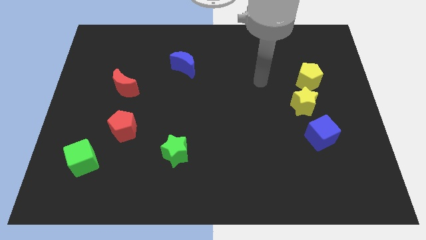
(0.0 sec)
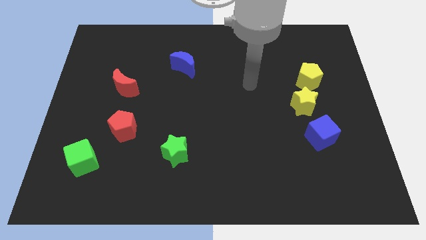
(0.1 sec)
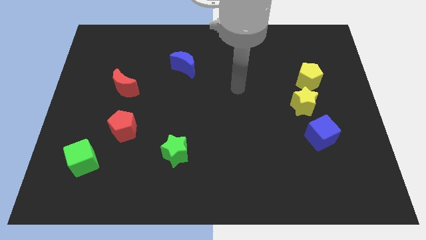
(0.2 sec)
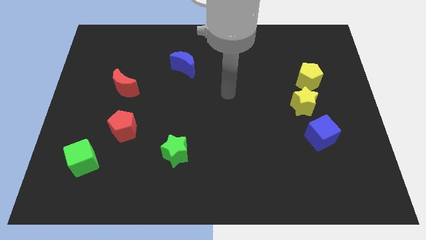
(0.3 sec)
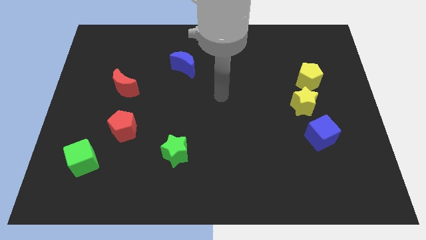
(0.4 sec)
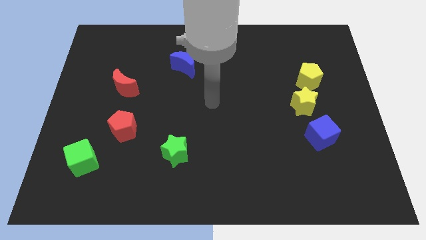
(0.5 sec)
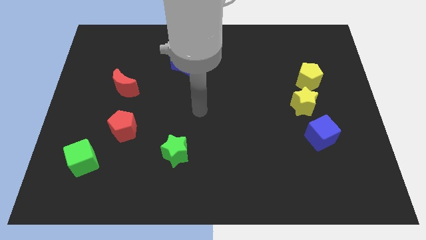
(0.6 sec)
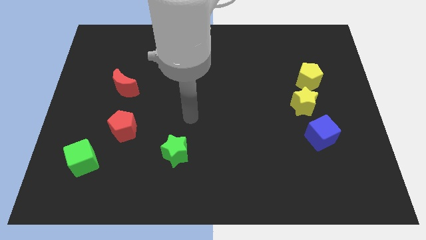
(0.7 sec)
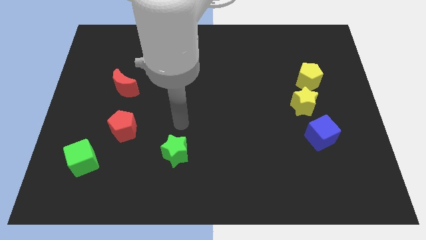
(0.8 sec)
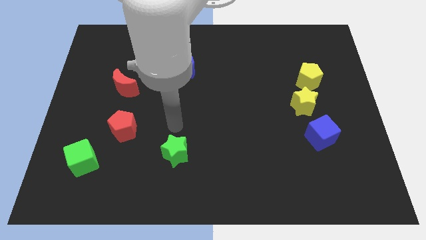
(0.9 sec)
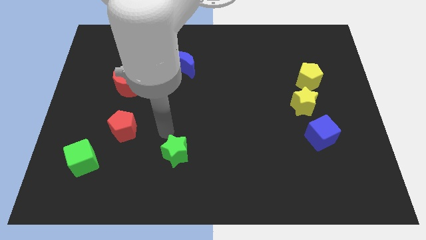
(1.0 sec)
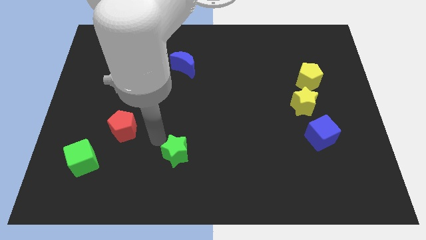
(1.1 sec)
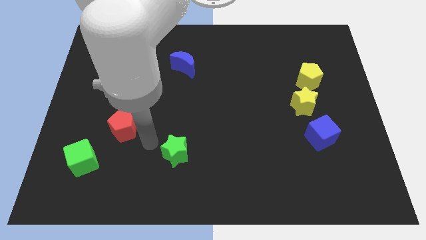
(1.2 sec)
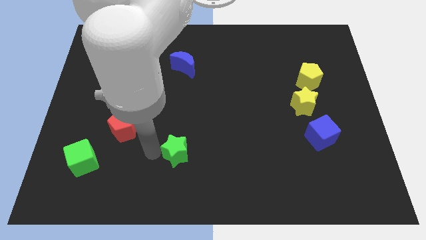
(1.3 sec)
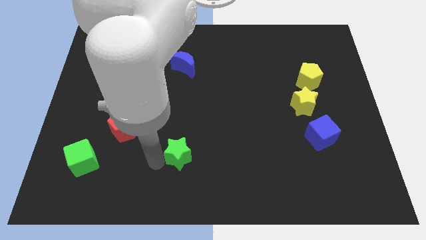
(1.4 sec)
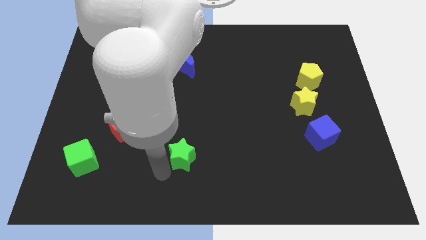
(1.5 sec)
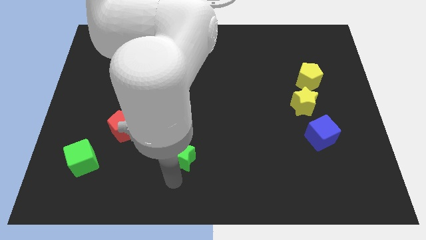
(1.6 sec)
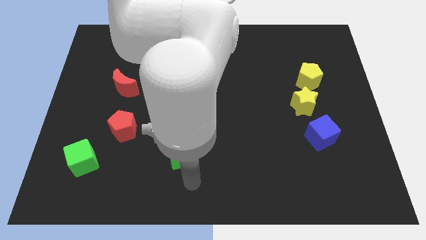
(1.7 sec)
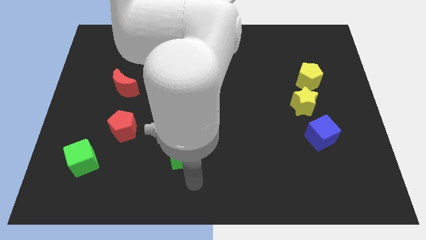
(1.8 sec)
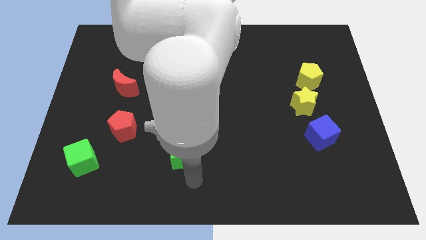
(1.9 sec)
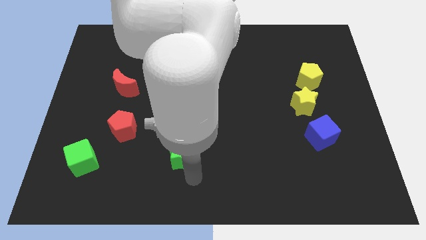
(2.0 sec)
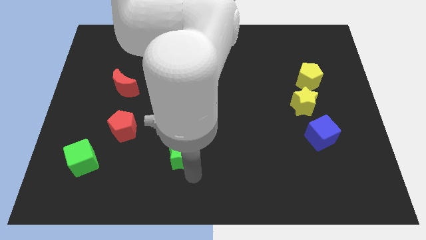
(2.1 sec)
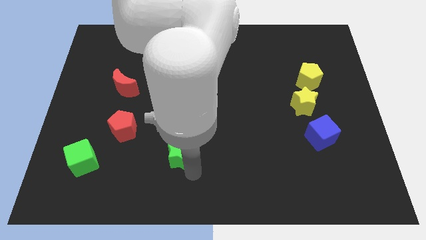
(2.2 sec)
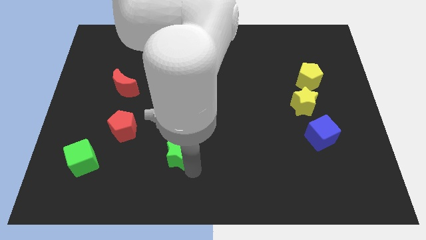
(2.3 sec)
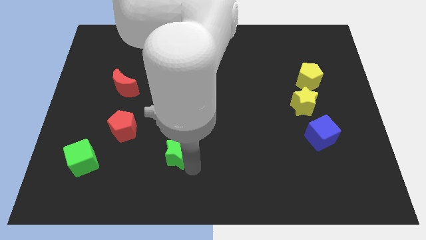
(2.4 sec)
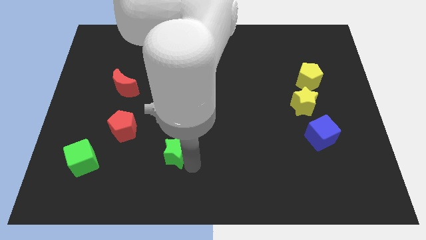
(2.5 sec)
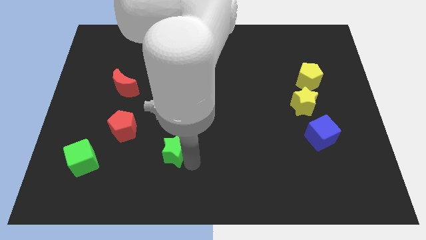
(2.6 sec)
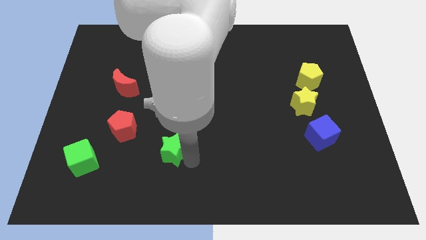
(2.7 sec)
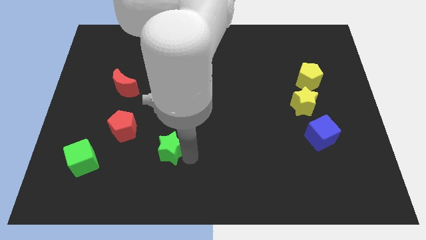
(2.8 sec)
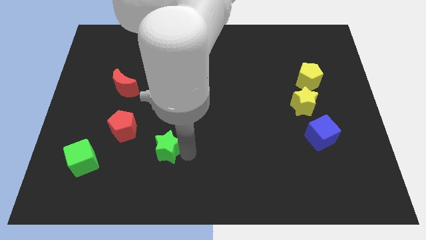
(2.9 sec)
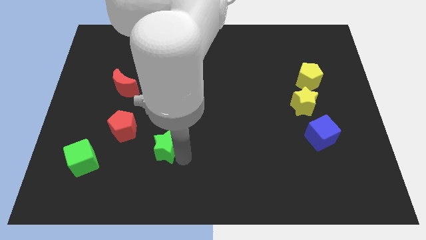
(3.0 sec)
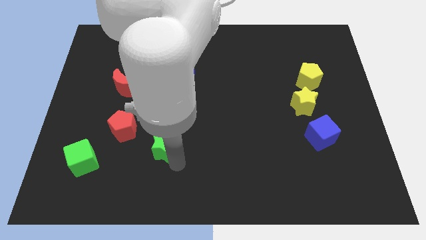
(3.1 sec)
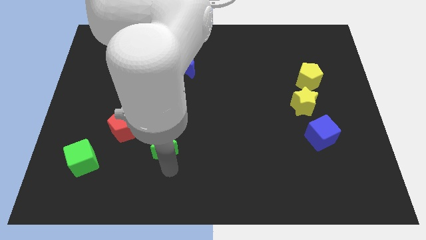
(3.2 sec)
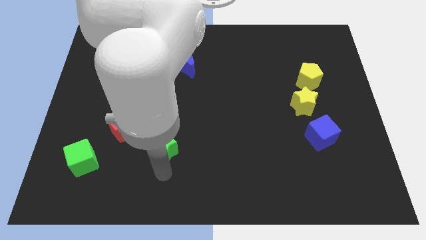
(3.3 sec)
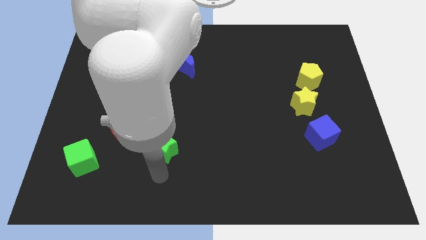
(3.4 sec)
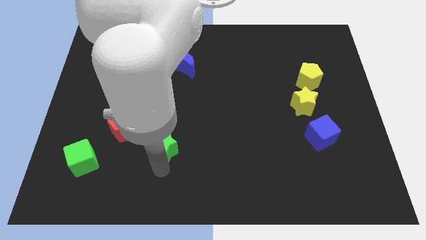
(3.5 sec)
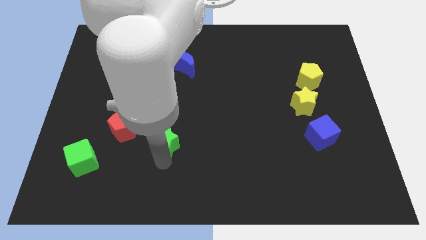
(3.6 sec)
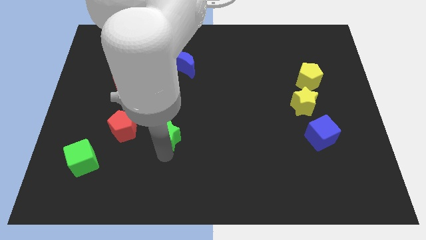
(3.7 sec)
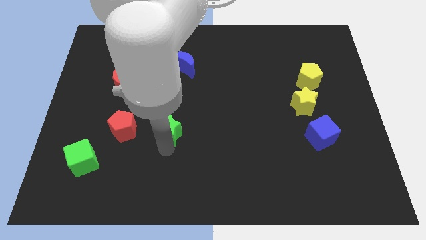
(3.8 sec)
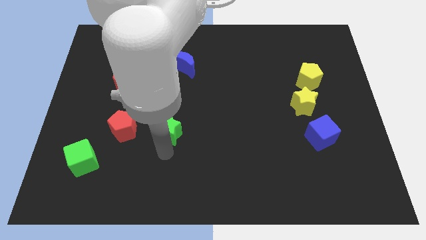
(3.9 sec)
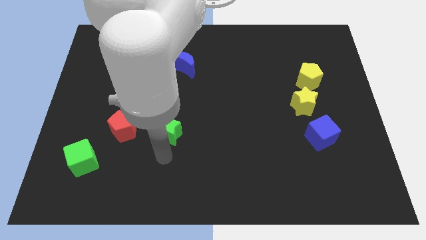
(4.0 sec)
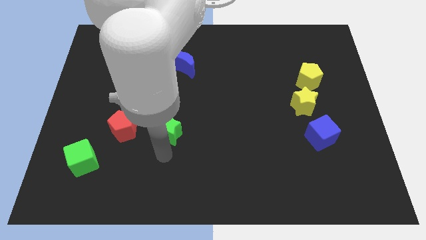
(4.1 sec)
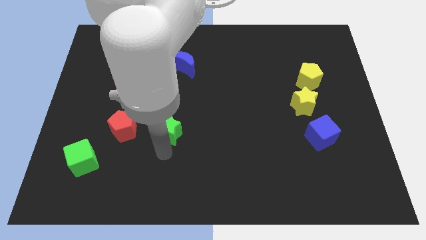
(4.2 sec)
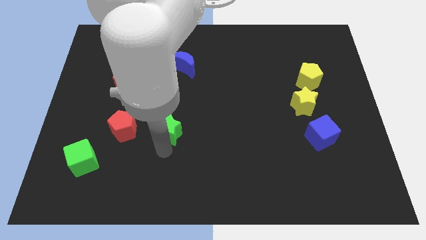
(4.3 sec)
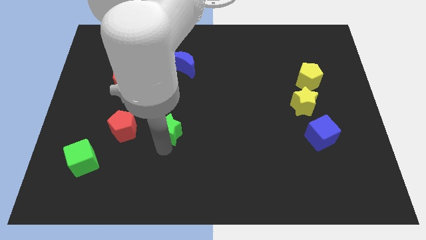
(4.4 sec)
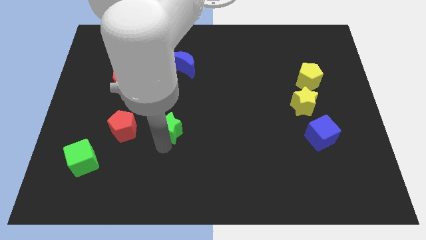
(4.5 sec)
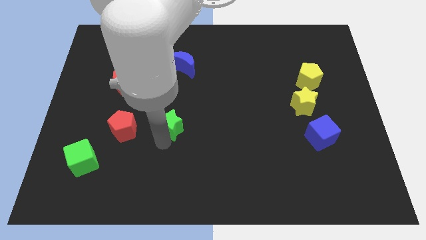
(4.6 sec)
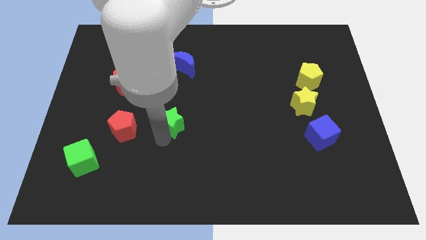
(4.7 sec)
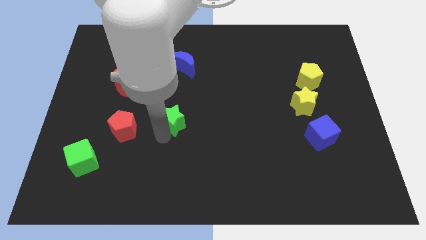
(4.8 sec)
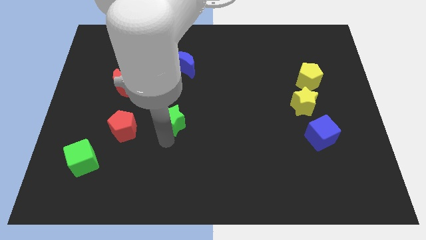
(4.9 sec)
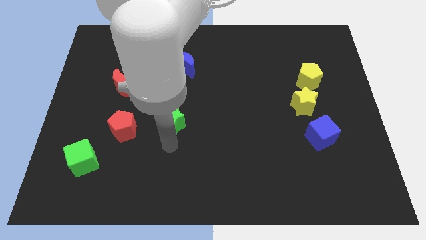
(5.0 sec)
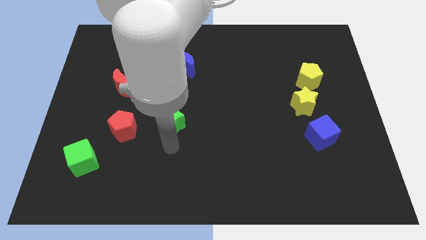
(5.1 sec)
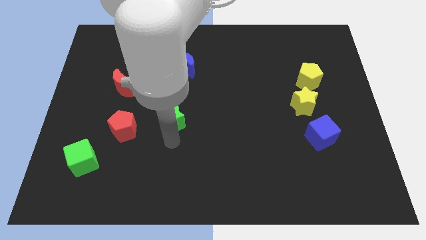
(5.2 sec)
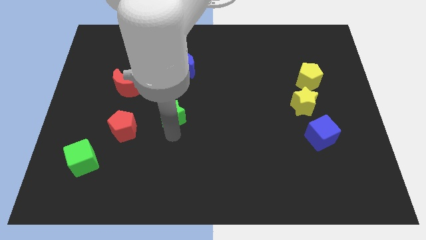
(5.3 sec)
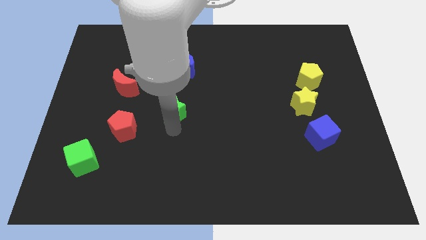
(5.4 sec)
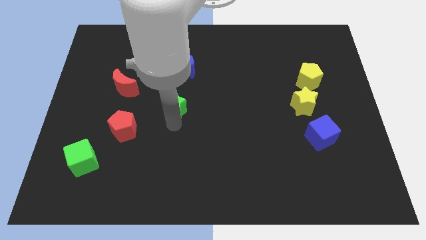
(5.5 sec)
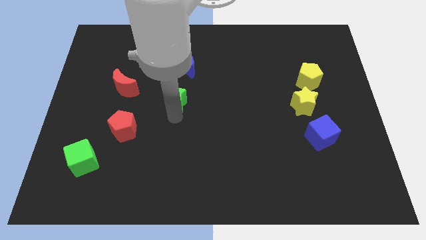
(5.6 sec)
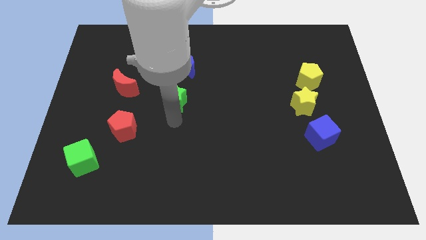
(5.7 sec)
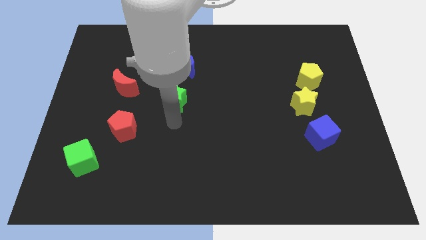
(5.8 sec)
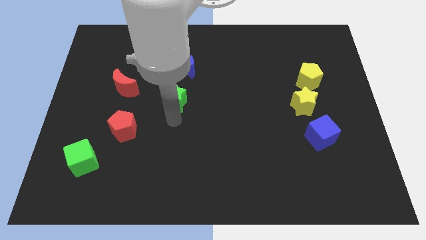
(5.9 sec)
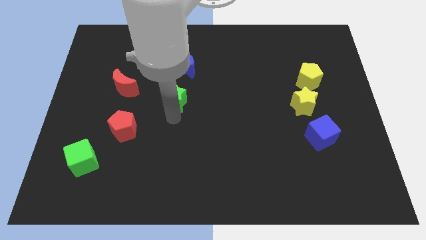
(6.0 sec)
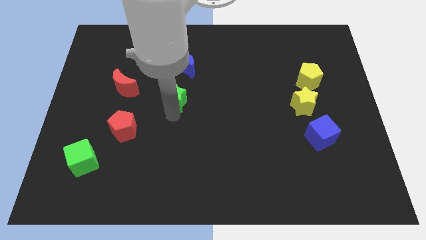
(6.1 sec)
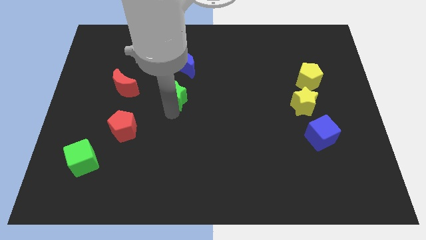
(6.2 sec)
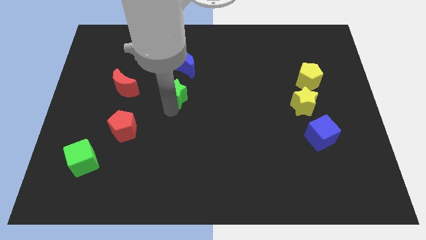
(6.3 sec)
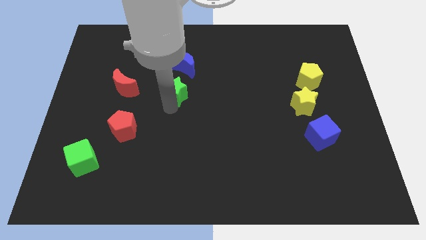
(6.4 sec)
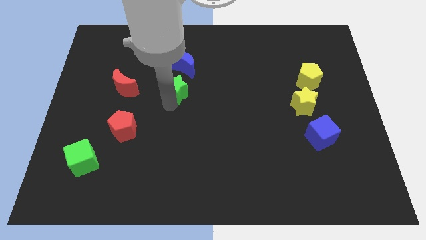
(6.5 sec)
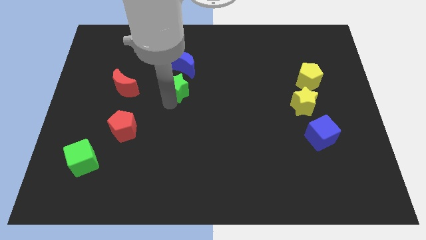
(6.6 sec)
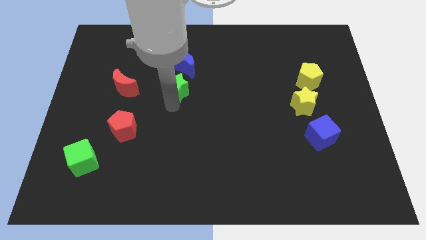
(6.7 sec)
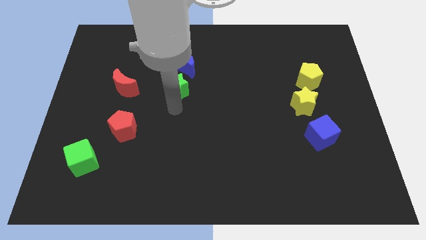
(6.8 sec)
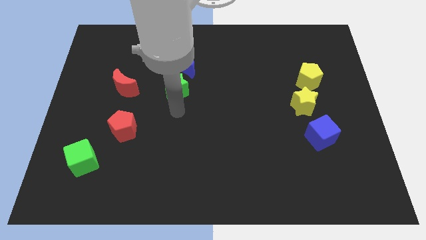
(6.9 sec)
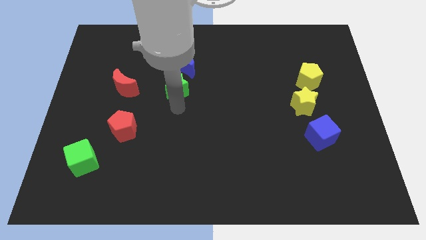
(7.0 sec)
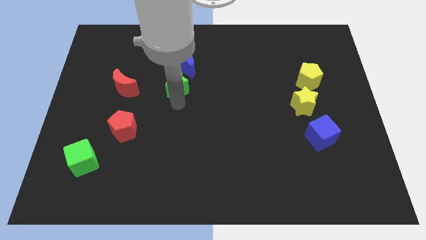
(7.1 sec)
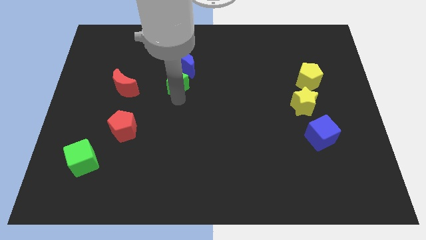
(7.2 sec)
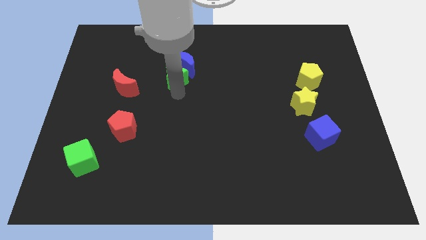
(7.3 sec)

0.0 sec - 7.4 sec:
slide the green star close to the blue moon
